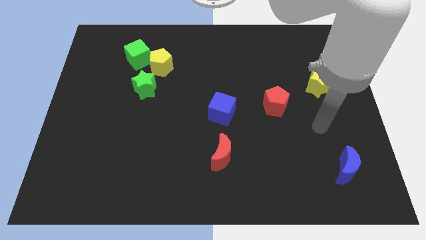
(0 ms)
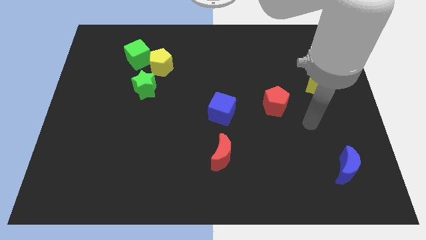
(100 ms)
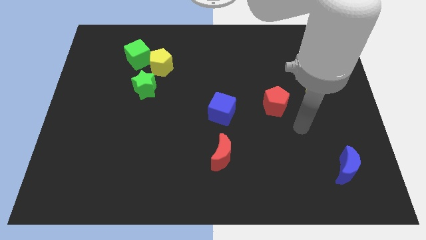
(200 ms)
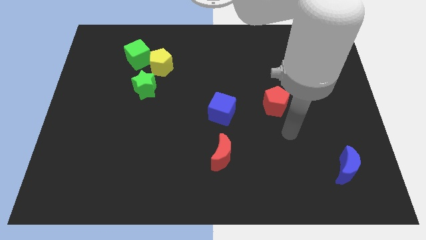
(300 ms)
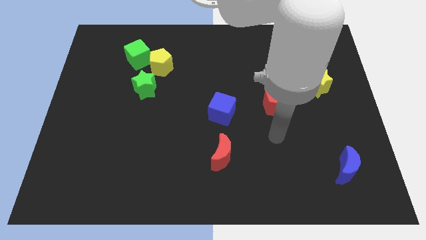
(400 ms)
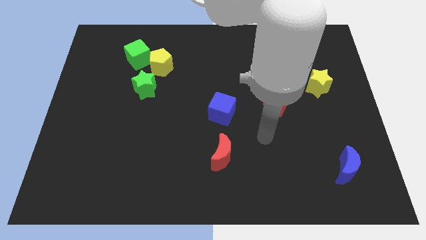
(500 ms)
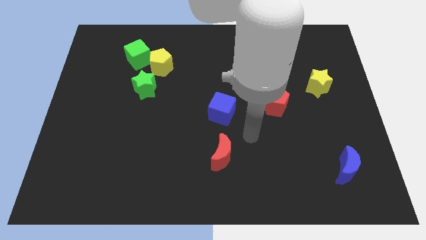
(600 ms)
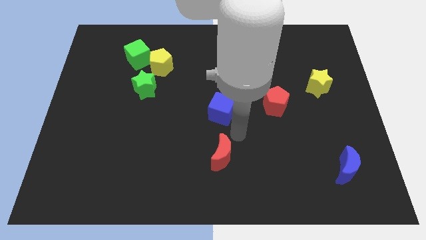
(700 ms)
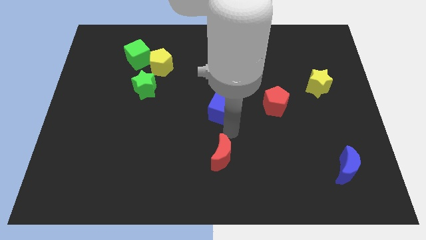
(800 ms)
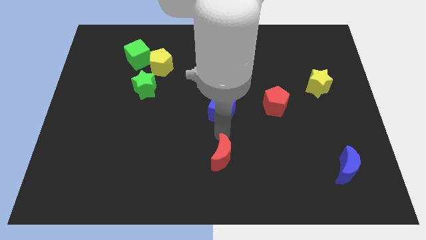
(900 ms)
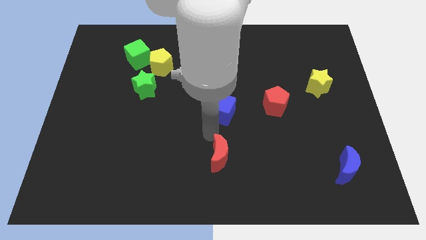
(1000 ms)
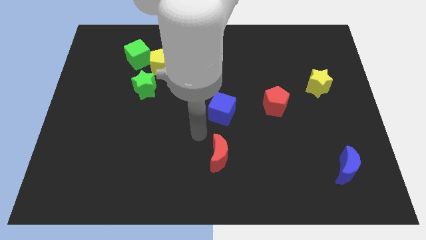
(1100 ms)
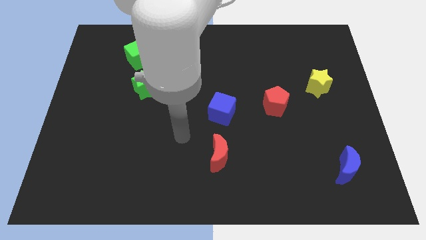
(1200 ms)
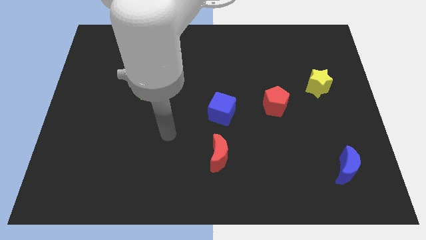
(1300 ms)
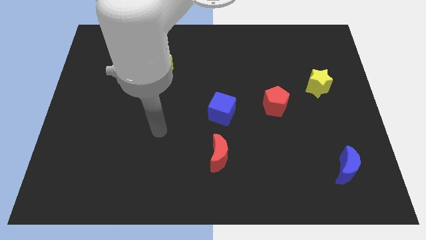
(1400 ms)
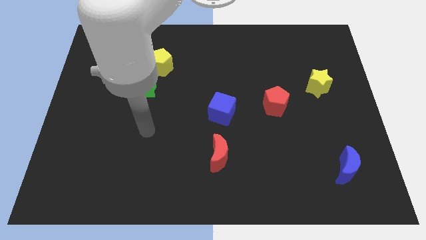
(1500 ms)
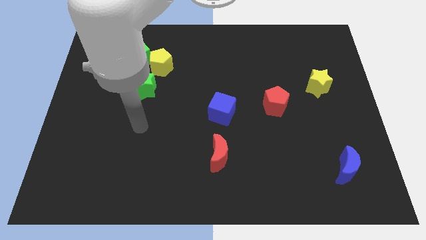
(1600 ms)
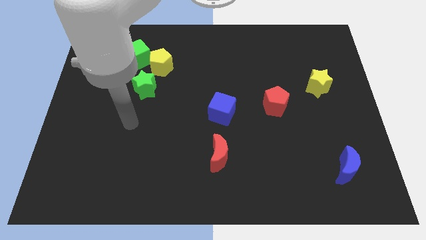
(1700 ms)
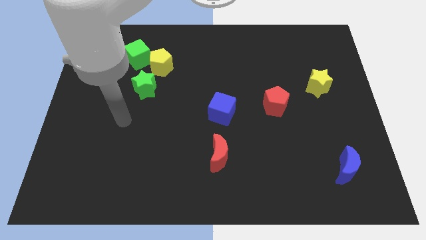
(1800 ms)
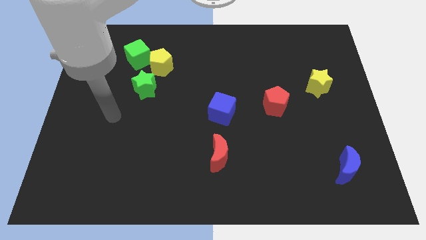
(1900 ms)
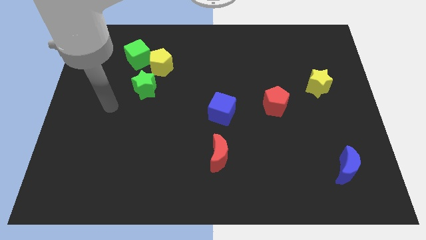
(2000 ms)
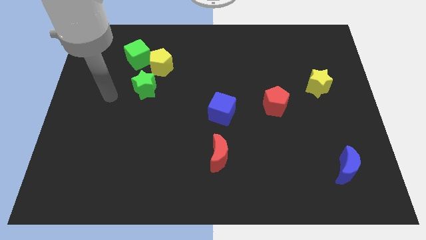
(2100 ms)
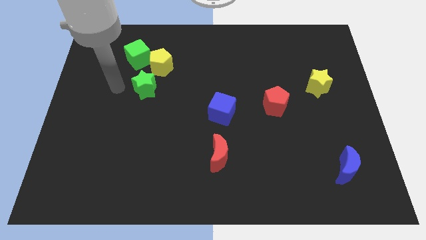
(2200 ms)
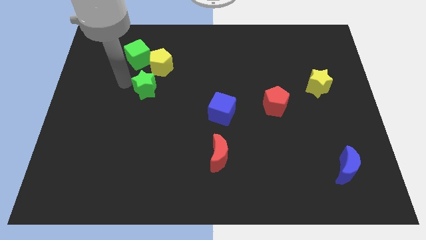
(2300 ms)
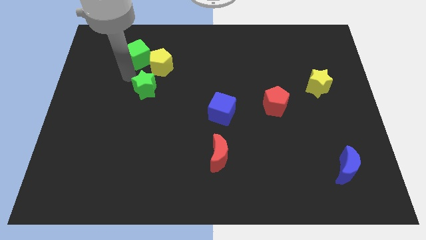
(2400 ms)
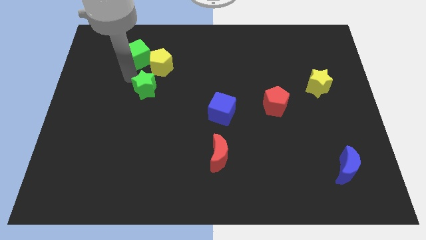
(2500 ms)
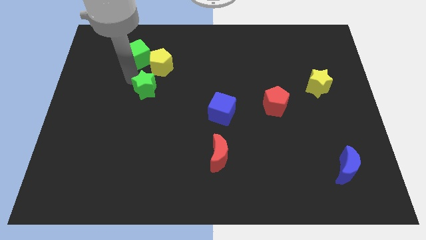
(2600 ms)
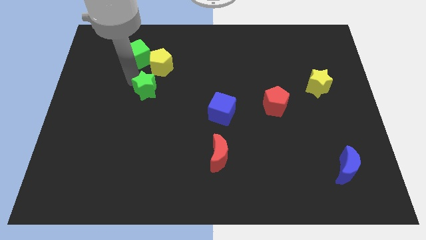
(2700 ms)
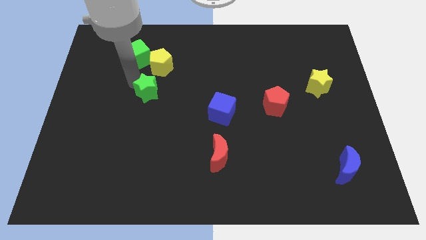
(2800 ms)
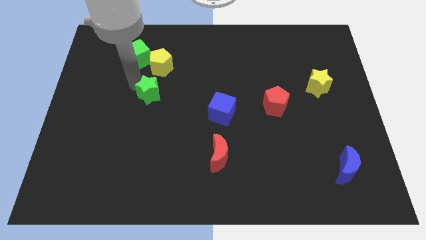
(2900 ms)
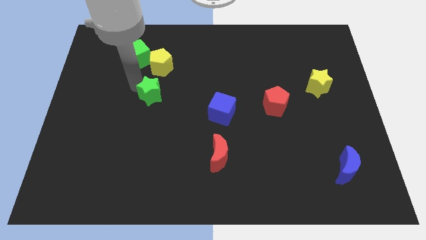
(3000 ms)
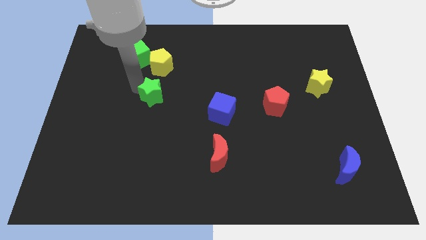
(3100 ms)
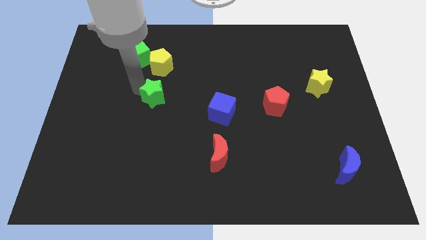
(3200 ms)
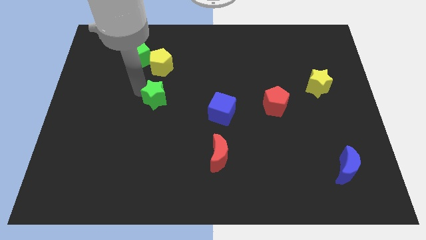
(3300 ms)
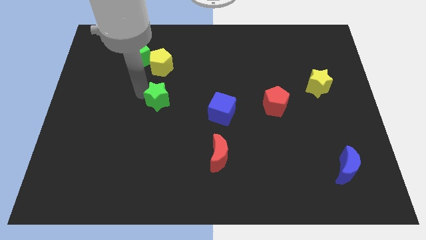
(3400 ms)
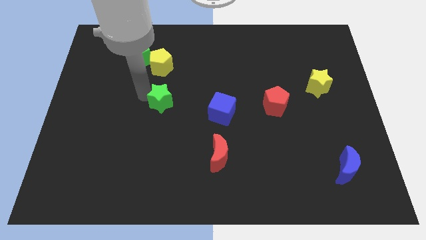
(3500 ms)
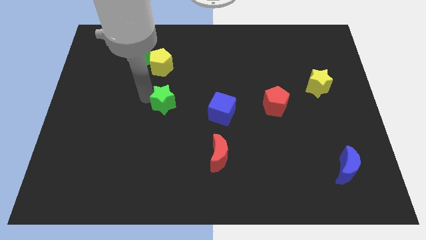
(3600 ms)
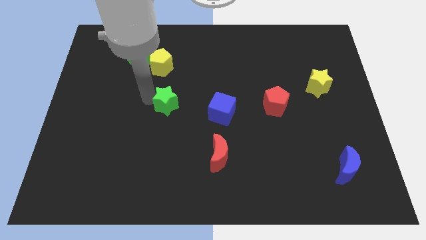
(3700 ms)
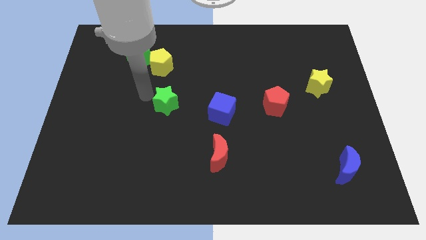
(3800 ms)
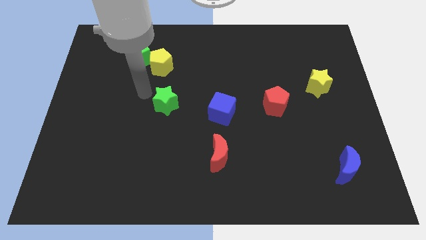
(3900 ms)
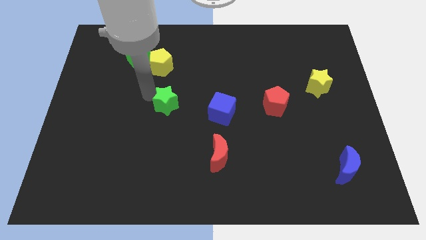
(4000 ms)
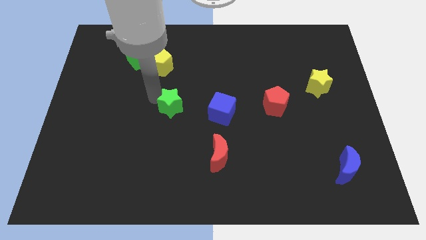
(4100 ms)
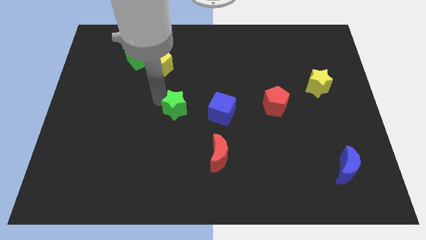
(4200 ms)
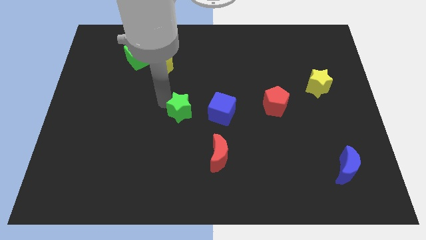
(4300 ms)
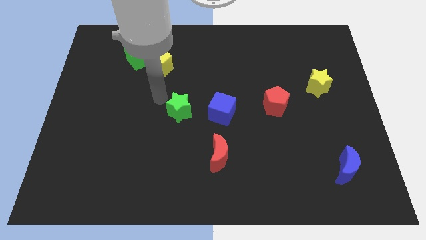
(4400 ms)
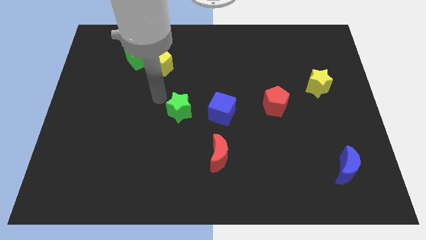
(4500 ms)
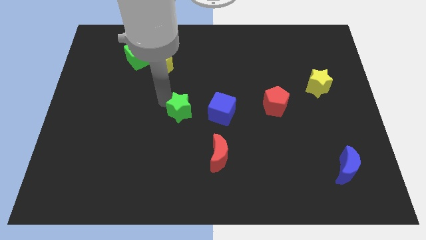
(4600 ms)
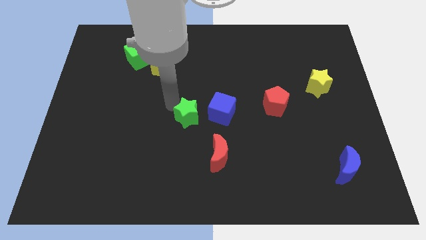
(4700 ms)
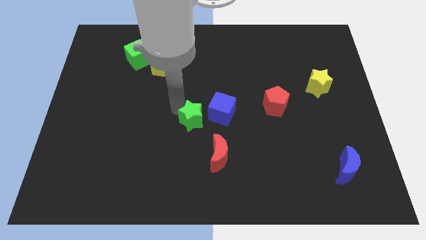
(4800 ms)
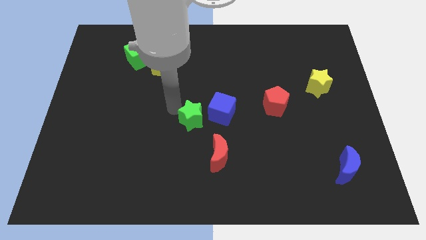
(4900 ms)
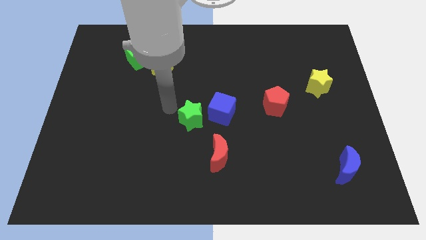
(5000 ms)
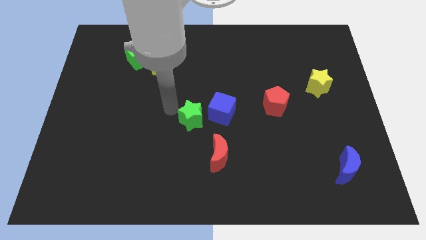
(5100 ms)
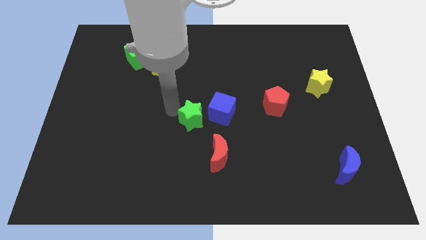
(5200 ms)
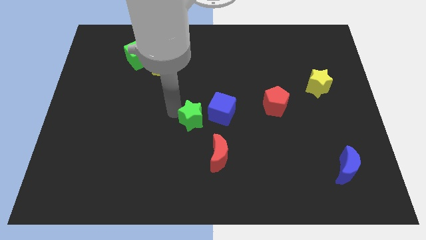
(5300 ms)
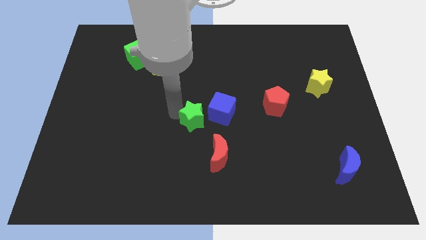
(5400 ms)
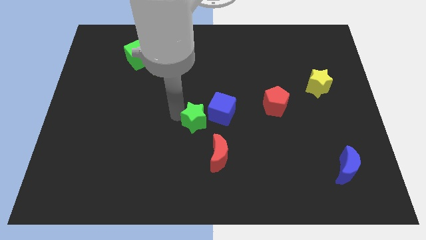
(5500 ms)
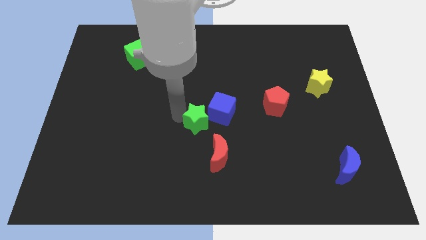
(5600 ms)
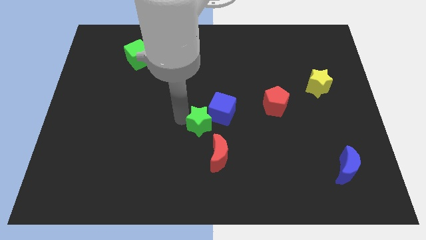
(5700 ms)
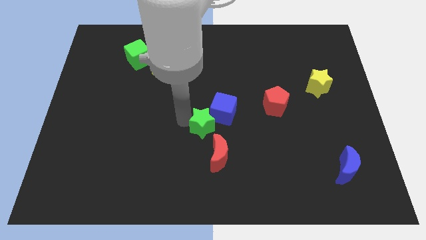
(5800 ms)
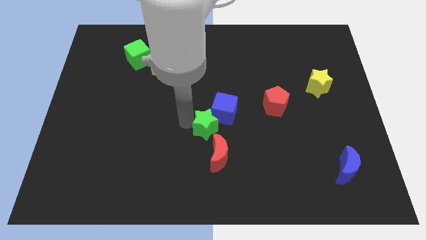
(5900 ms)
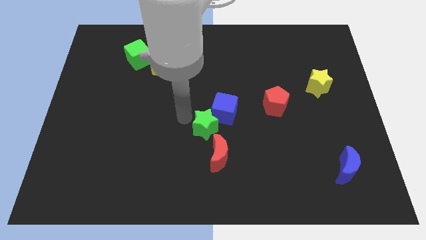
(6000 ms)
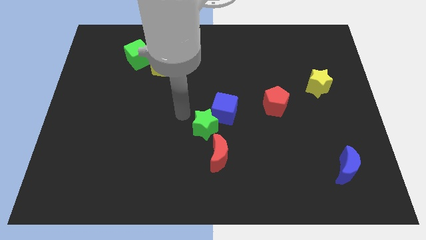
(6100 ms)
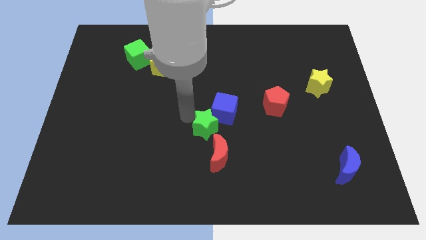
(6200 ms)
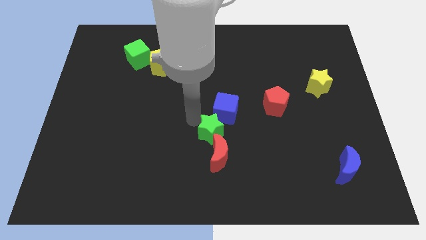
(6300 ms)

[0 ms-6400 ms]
slide the green star downwards and right

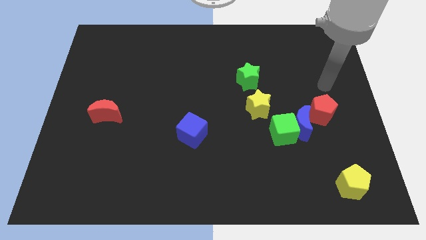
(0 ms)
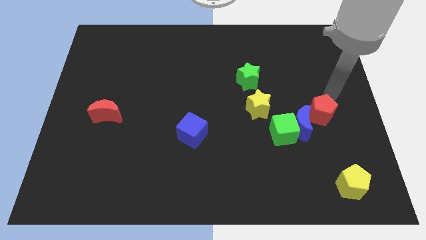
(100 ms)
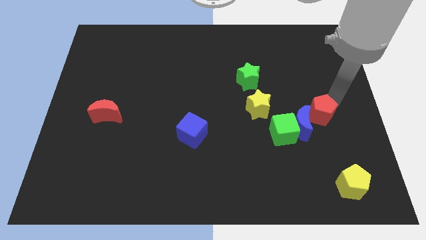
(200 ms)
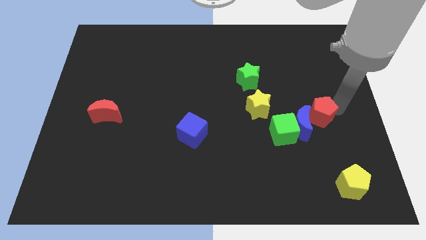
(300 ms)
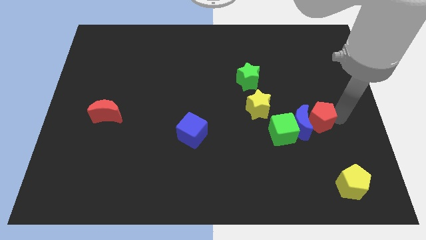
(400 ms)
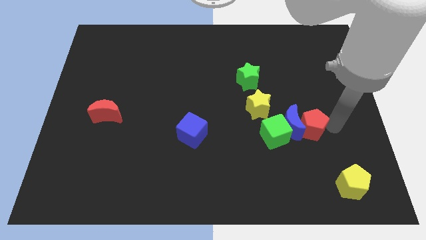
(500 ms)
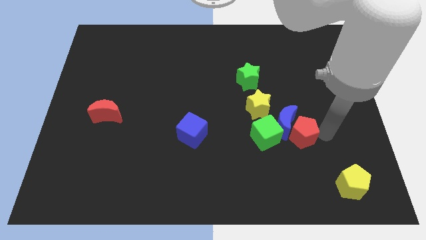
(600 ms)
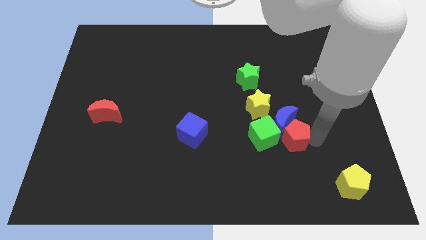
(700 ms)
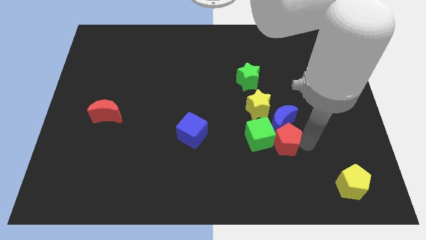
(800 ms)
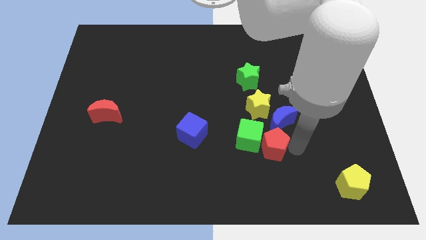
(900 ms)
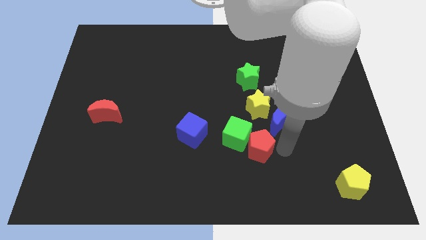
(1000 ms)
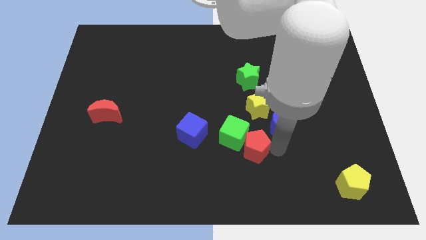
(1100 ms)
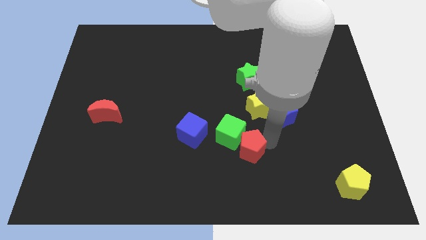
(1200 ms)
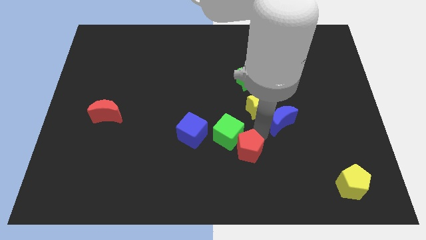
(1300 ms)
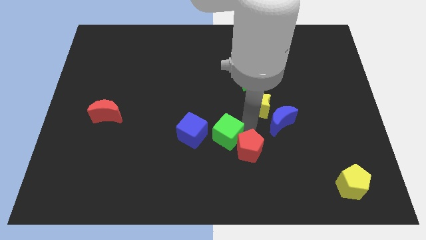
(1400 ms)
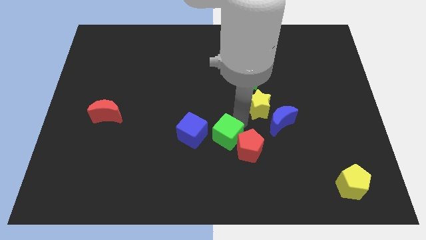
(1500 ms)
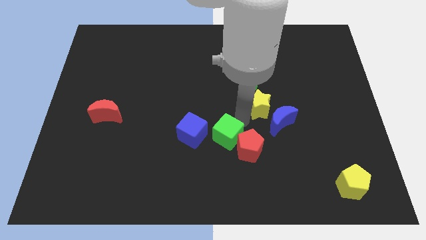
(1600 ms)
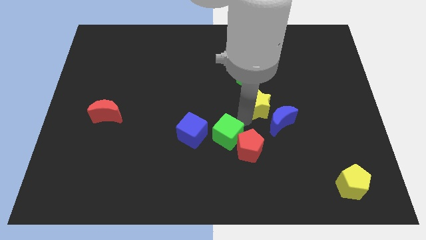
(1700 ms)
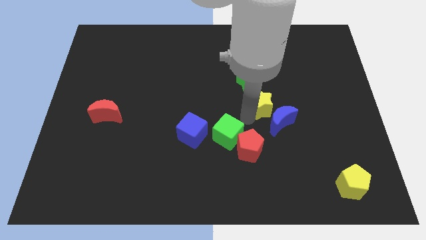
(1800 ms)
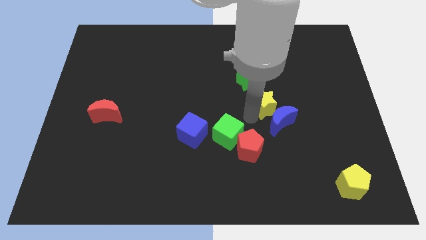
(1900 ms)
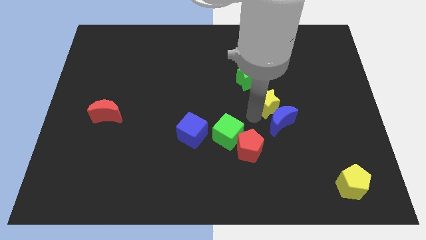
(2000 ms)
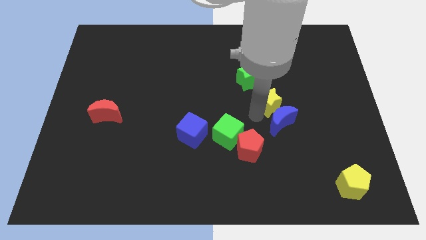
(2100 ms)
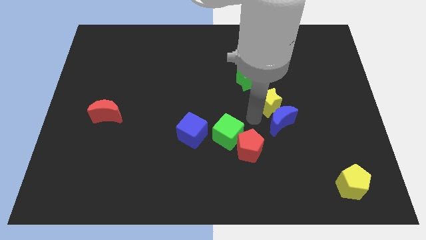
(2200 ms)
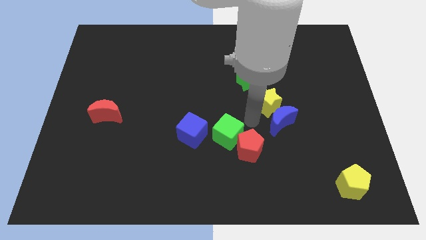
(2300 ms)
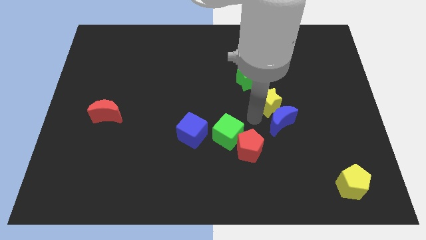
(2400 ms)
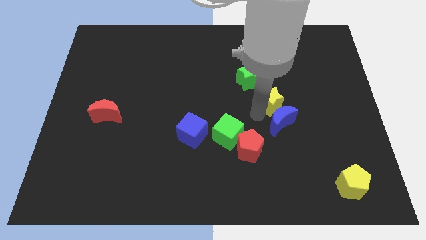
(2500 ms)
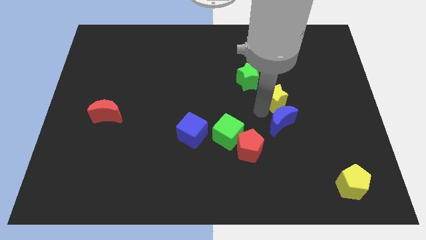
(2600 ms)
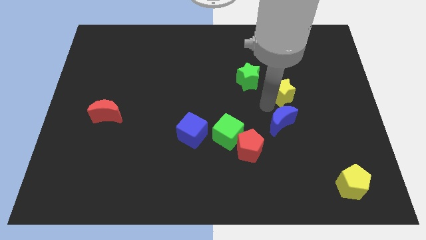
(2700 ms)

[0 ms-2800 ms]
push the yellow star up and to the right somewhat
